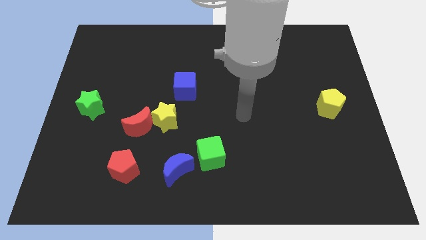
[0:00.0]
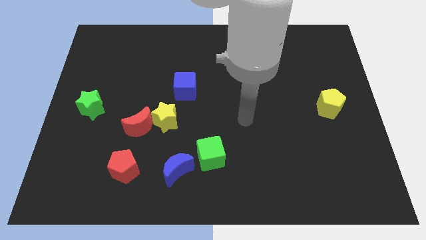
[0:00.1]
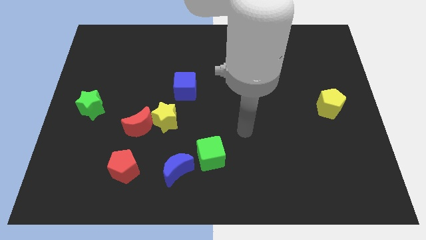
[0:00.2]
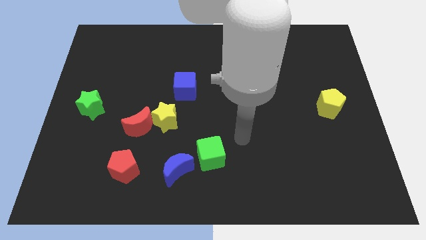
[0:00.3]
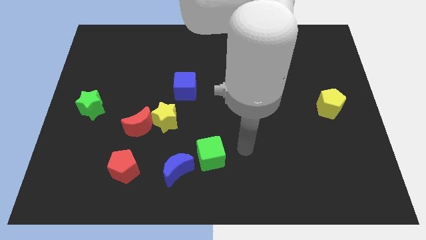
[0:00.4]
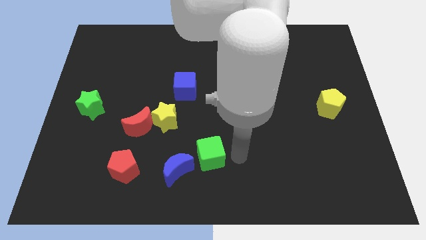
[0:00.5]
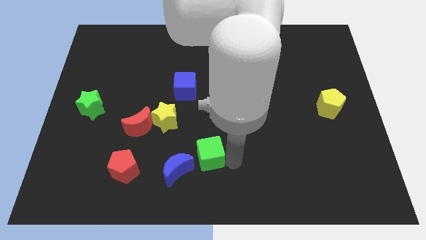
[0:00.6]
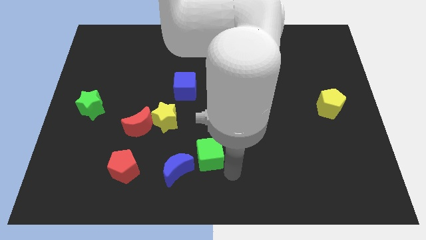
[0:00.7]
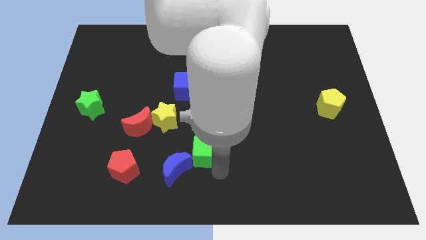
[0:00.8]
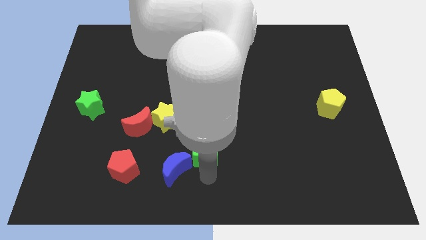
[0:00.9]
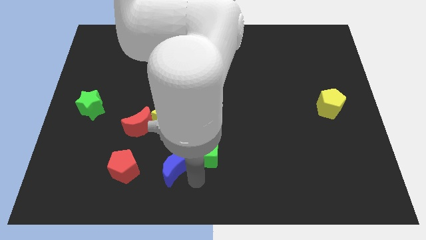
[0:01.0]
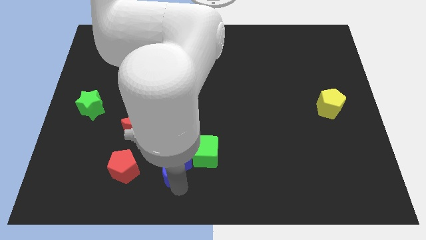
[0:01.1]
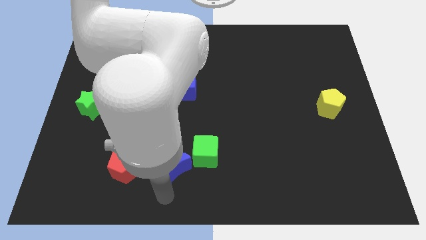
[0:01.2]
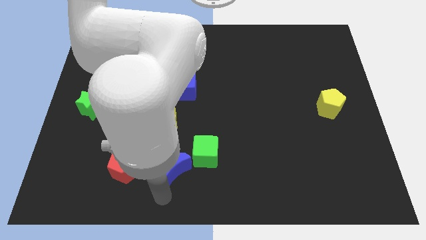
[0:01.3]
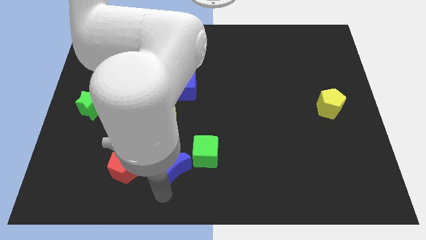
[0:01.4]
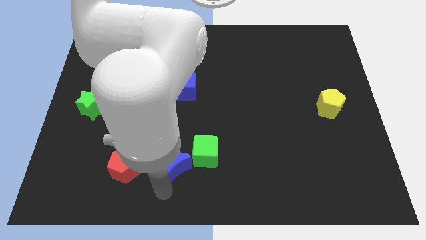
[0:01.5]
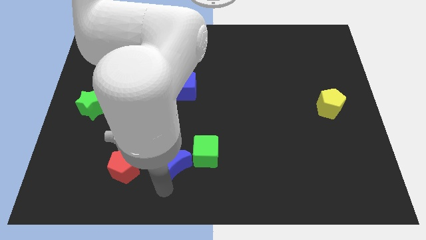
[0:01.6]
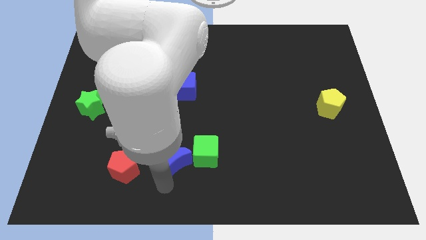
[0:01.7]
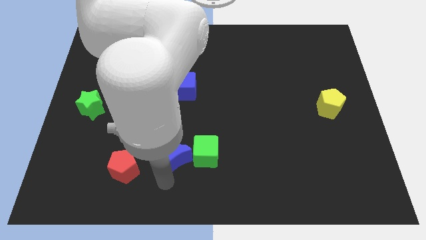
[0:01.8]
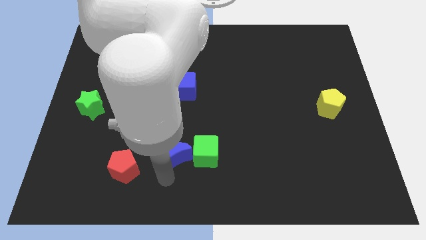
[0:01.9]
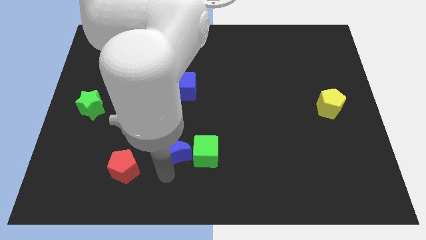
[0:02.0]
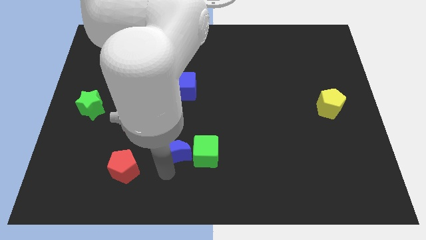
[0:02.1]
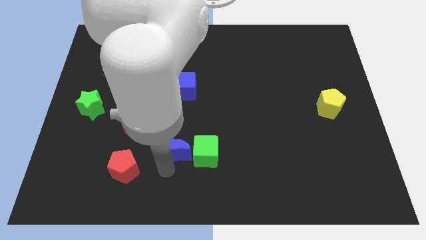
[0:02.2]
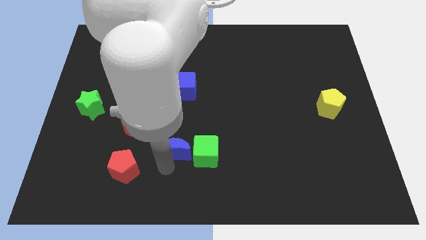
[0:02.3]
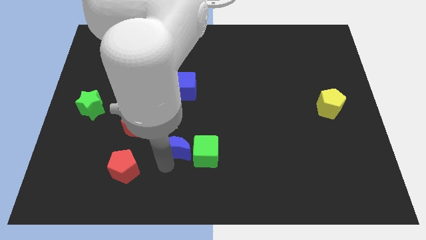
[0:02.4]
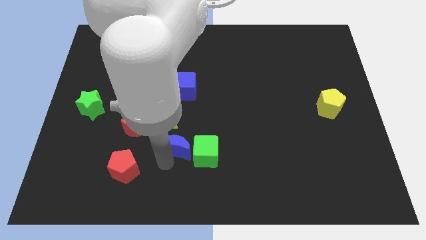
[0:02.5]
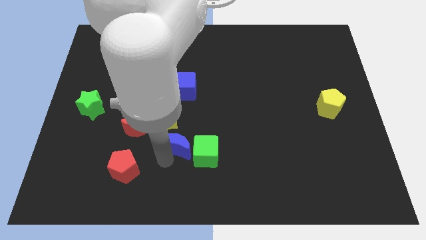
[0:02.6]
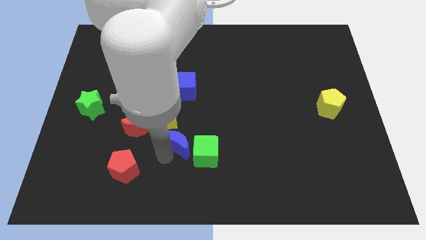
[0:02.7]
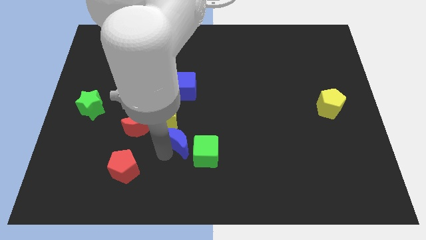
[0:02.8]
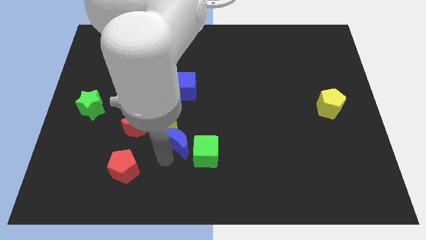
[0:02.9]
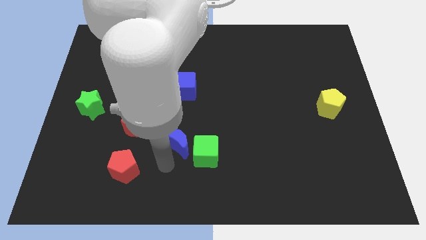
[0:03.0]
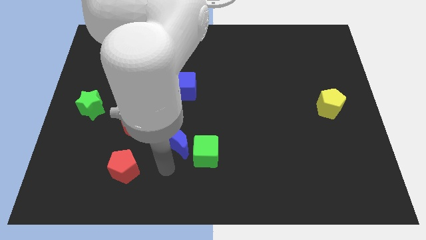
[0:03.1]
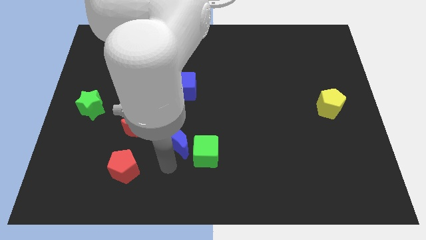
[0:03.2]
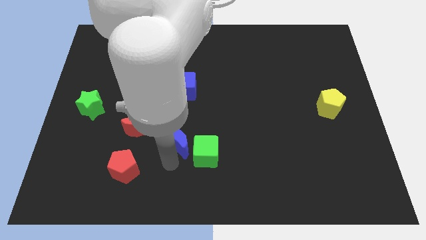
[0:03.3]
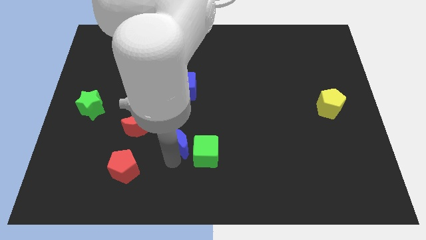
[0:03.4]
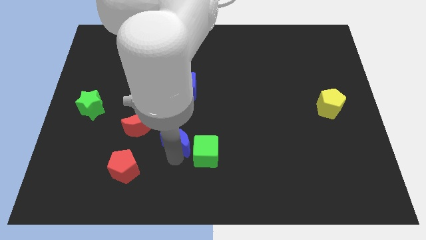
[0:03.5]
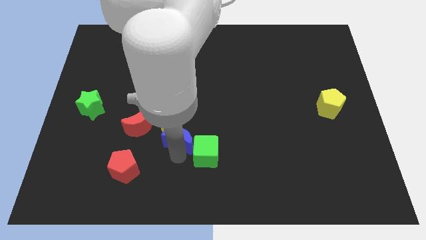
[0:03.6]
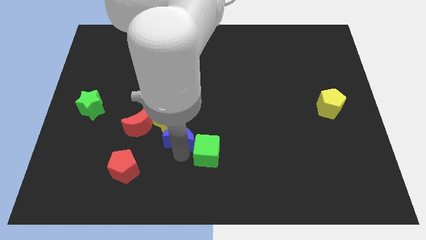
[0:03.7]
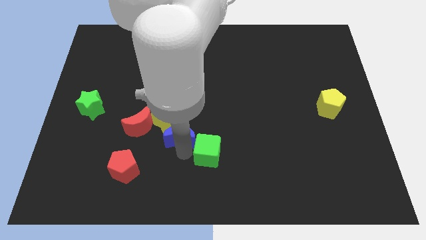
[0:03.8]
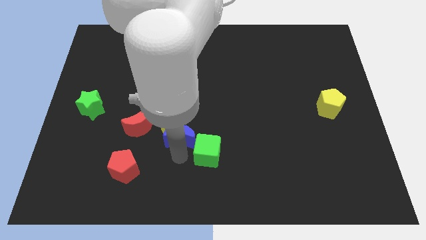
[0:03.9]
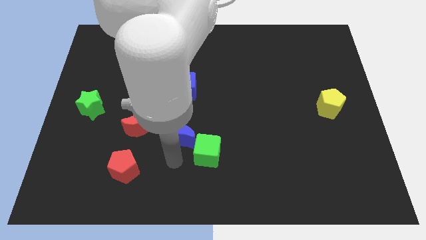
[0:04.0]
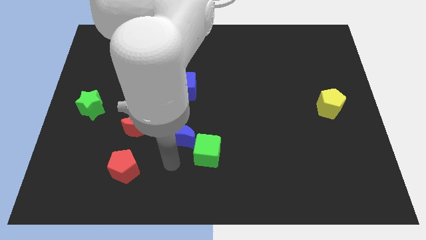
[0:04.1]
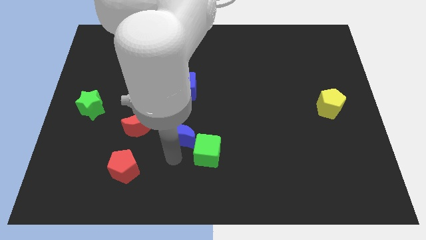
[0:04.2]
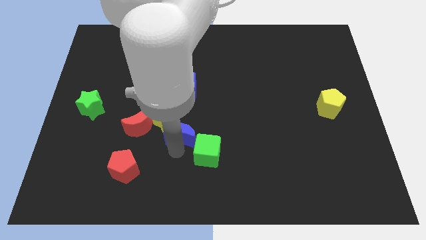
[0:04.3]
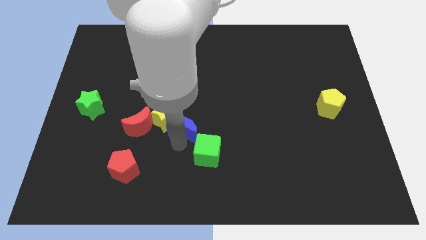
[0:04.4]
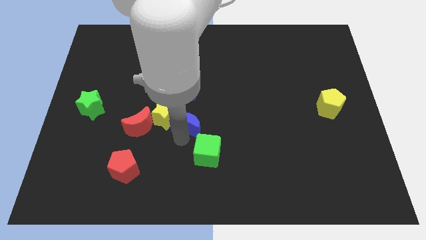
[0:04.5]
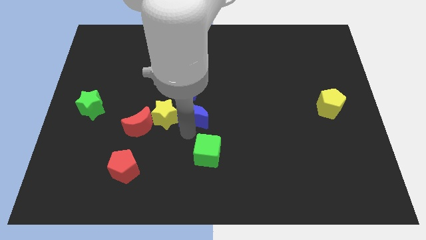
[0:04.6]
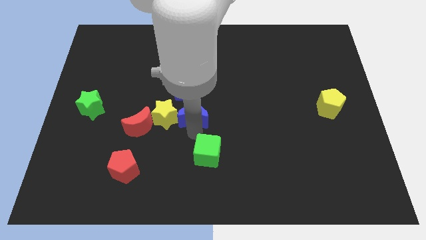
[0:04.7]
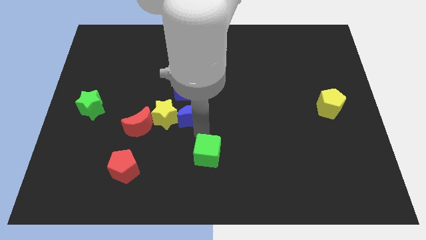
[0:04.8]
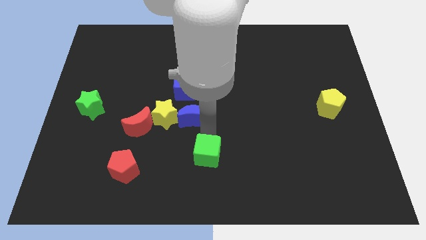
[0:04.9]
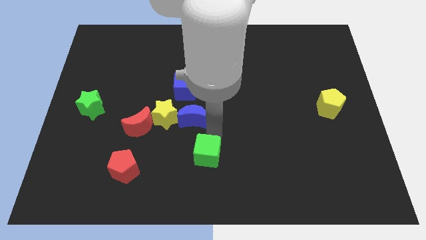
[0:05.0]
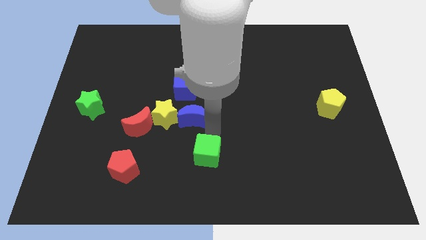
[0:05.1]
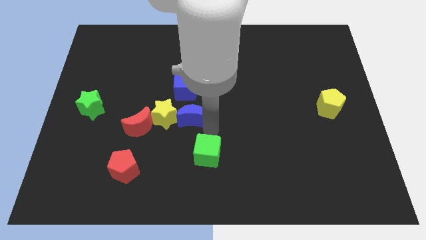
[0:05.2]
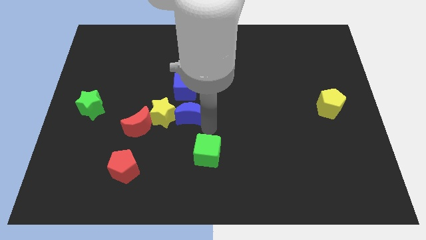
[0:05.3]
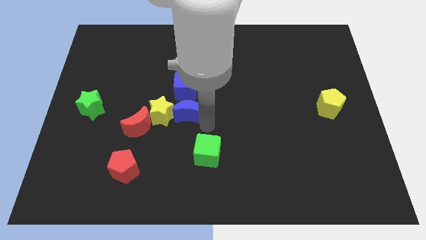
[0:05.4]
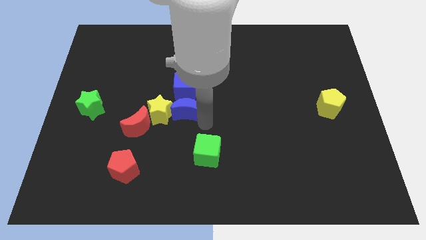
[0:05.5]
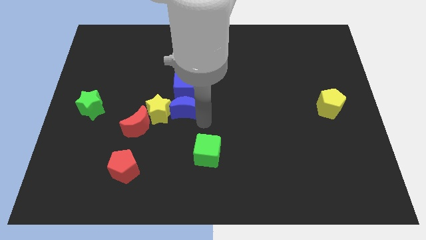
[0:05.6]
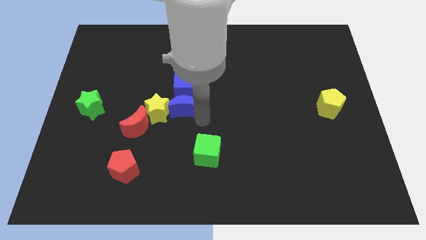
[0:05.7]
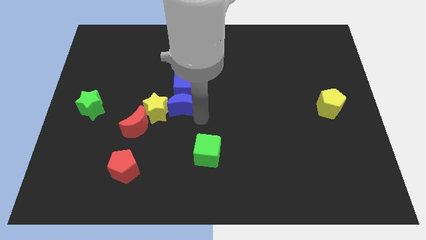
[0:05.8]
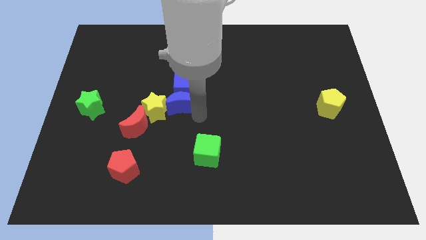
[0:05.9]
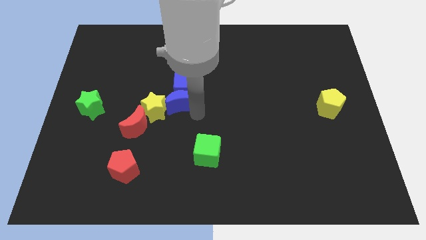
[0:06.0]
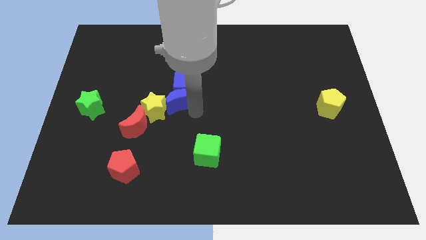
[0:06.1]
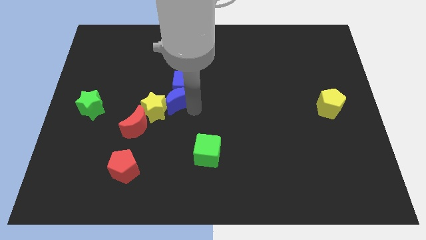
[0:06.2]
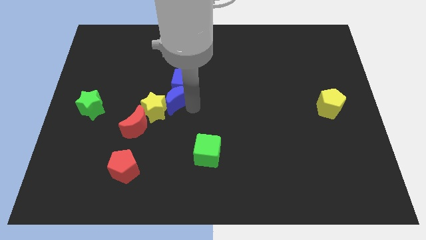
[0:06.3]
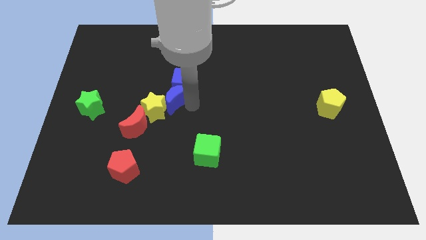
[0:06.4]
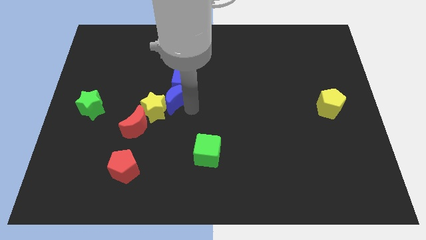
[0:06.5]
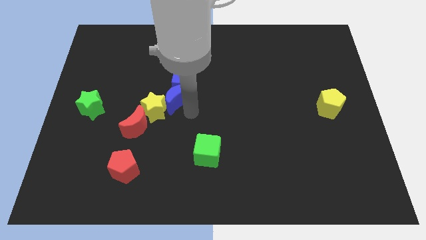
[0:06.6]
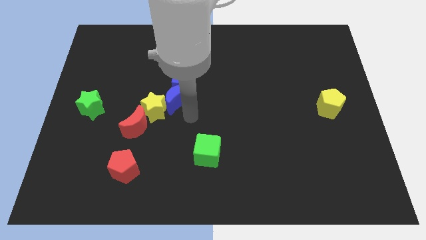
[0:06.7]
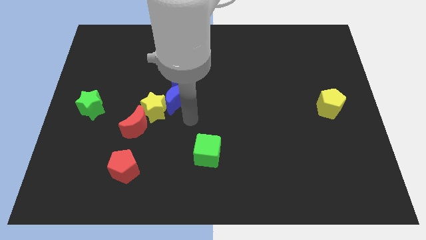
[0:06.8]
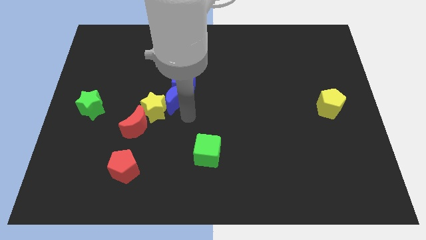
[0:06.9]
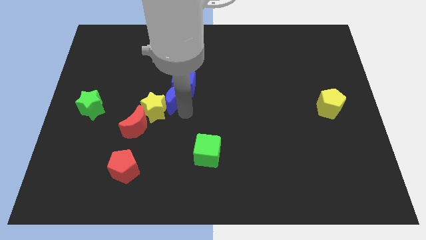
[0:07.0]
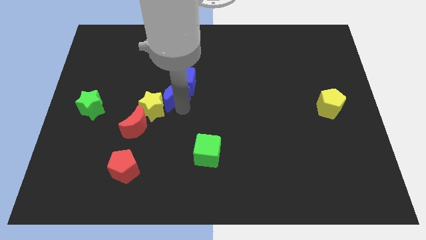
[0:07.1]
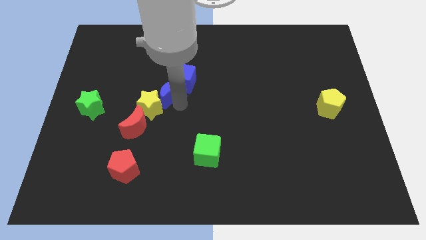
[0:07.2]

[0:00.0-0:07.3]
move the blue moon up

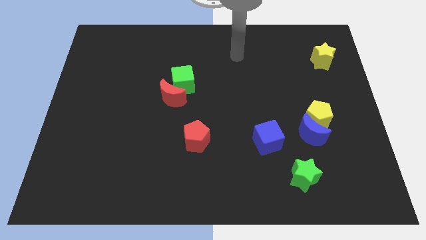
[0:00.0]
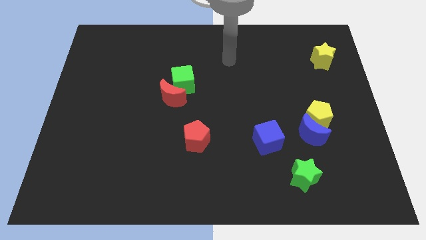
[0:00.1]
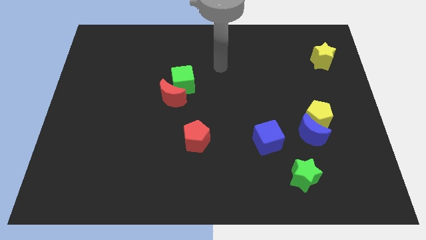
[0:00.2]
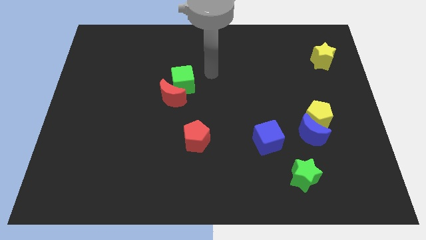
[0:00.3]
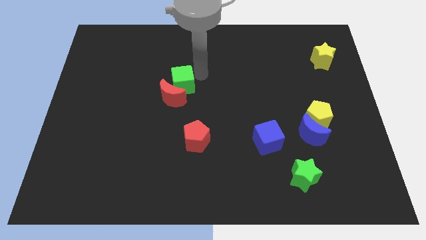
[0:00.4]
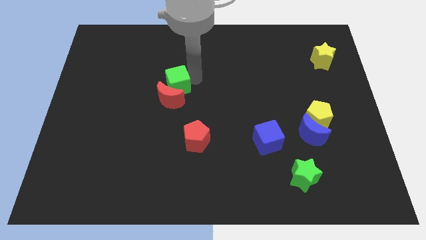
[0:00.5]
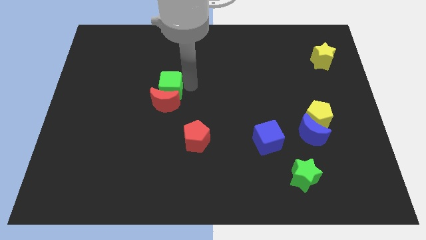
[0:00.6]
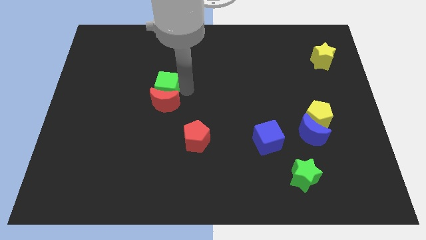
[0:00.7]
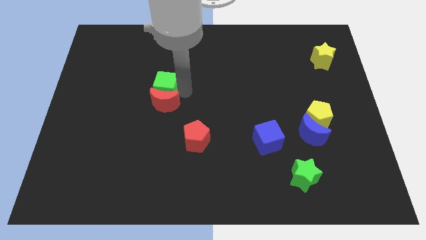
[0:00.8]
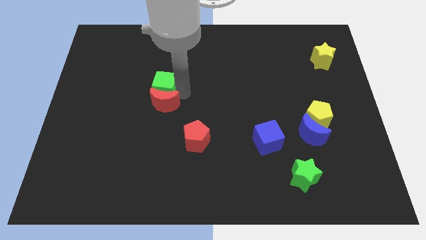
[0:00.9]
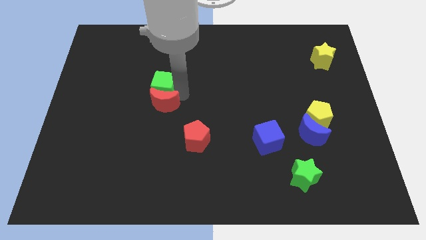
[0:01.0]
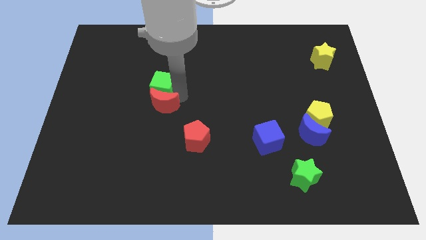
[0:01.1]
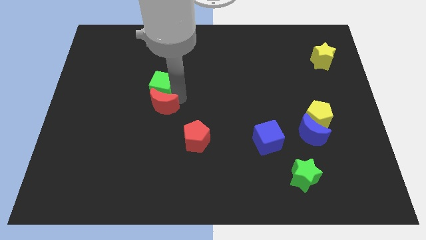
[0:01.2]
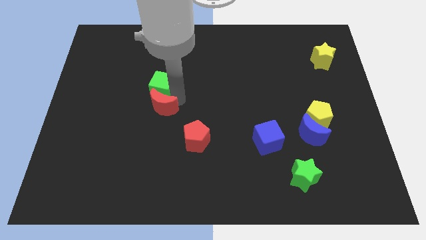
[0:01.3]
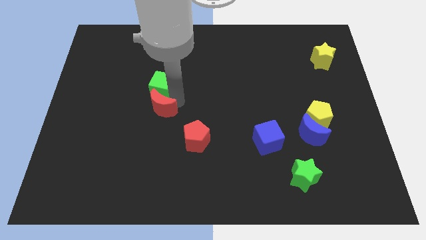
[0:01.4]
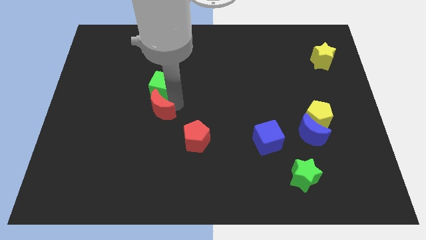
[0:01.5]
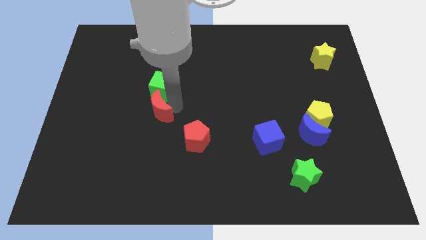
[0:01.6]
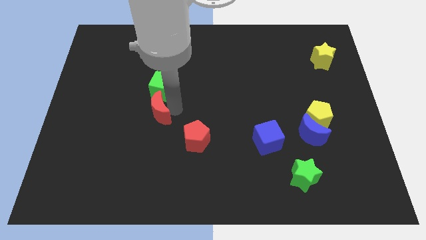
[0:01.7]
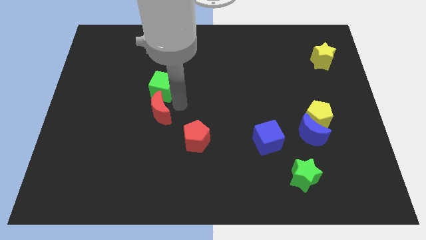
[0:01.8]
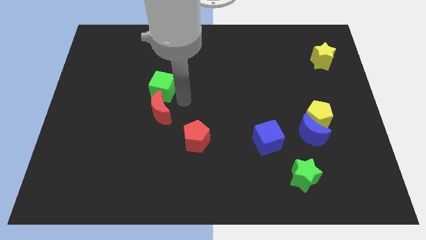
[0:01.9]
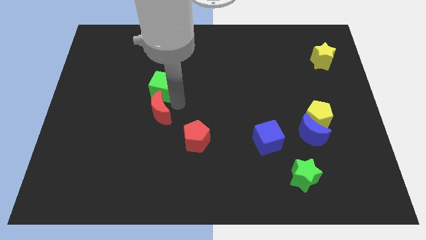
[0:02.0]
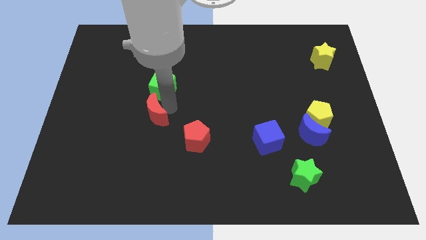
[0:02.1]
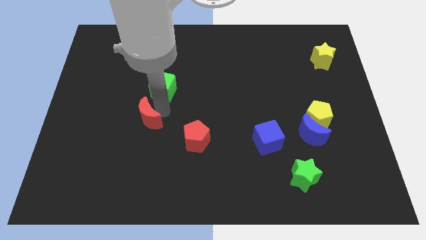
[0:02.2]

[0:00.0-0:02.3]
slide the red moon down and then to the left a little bit
